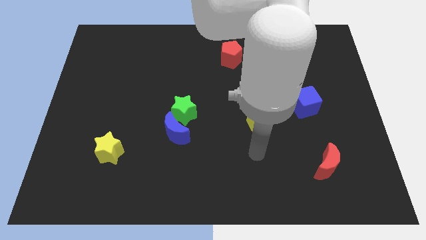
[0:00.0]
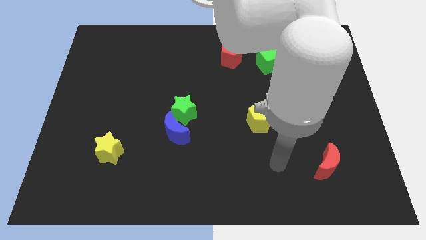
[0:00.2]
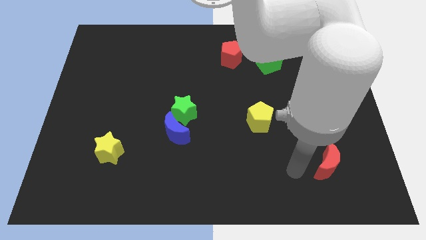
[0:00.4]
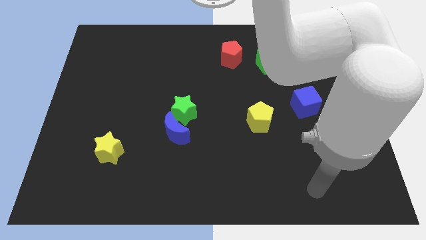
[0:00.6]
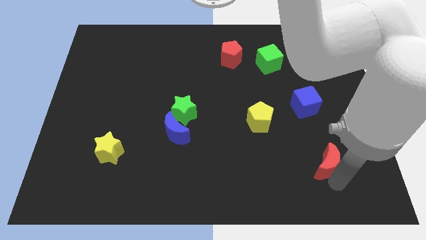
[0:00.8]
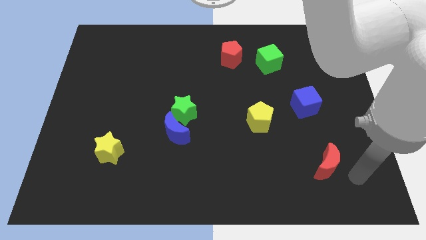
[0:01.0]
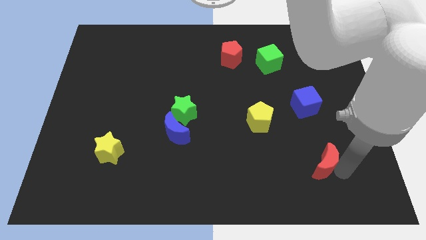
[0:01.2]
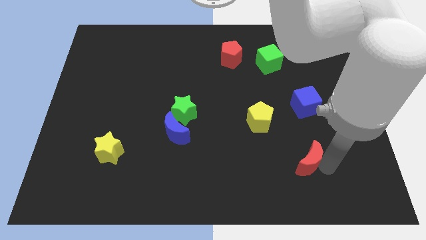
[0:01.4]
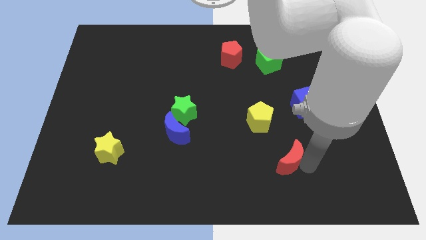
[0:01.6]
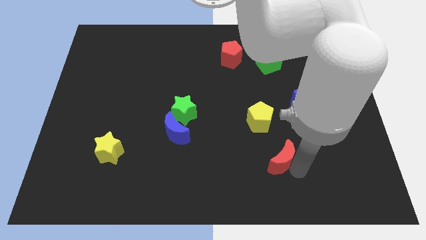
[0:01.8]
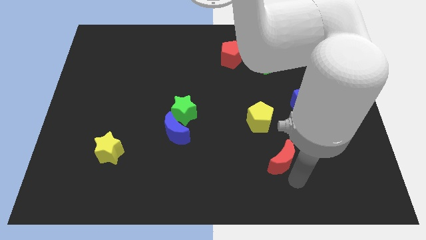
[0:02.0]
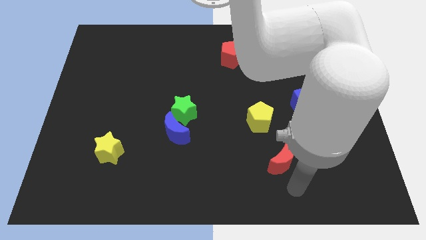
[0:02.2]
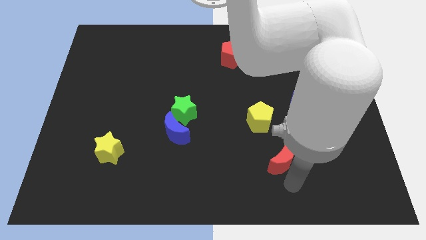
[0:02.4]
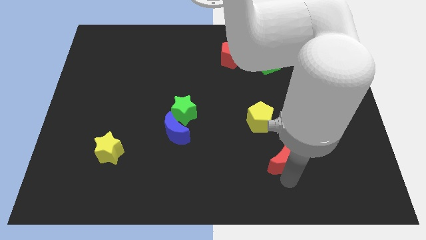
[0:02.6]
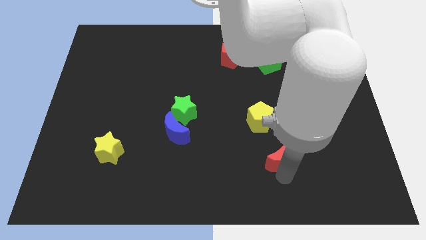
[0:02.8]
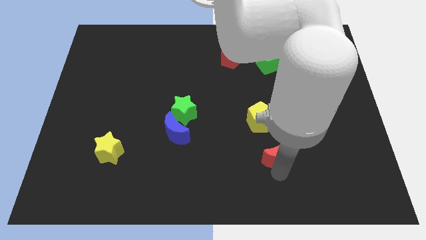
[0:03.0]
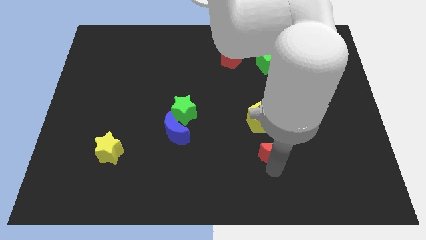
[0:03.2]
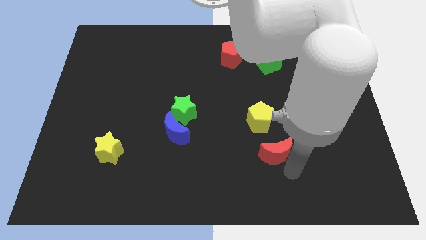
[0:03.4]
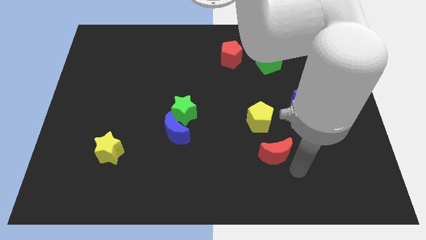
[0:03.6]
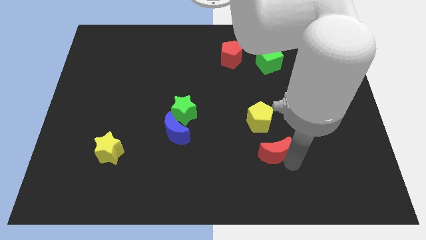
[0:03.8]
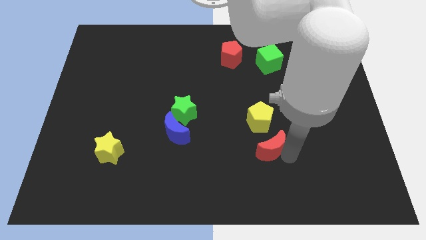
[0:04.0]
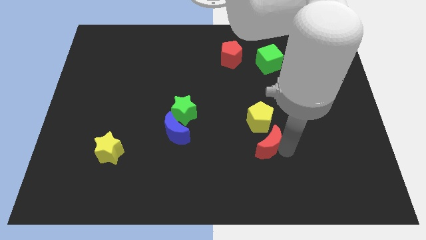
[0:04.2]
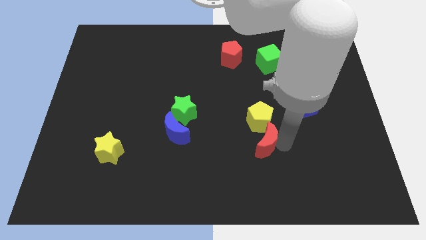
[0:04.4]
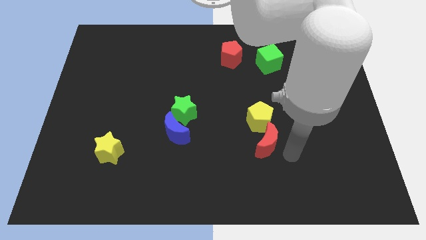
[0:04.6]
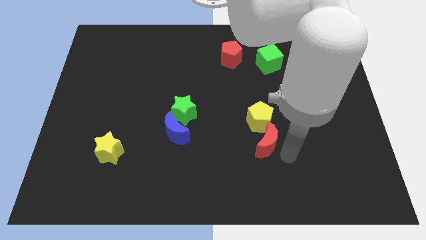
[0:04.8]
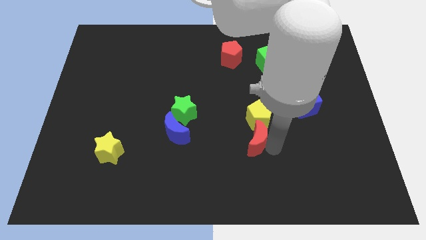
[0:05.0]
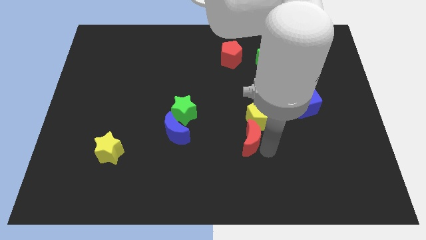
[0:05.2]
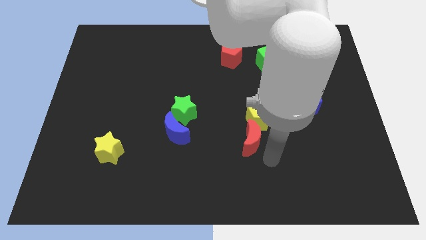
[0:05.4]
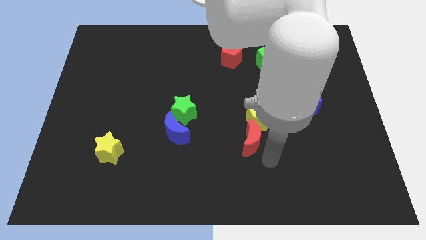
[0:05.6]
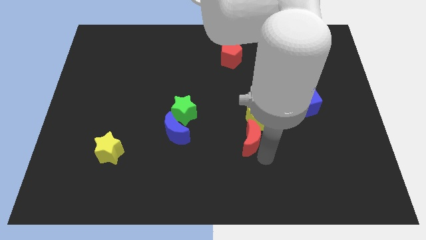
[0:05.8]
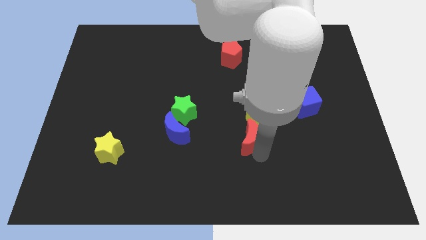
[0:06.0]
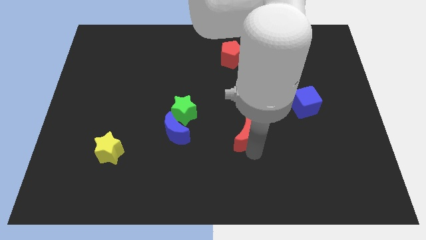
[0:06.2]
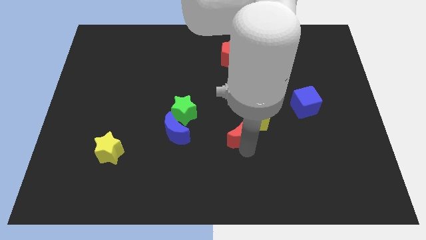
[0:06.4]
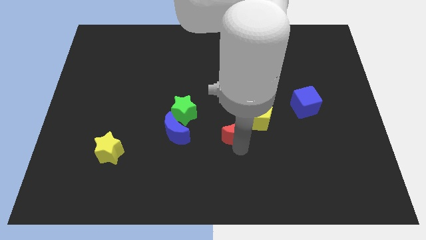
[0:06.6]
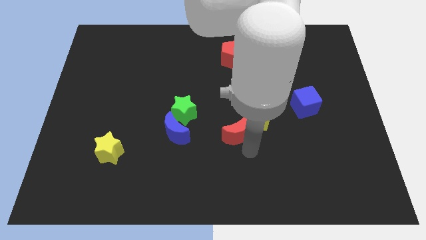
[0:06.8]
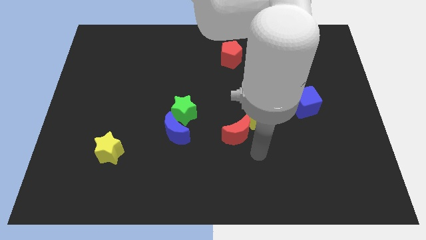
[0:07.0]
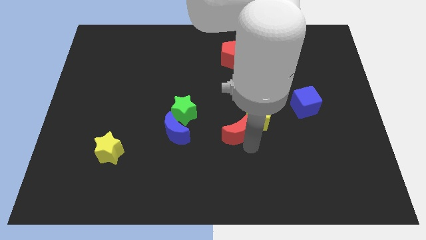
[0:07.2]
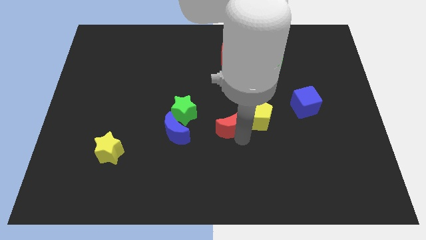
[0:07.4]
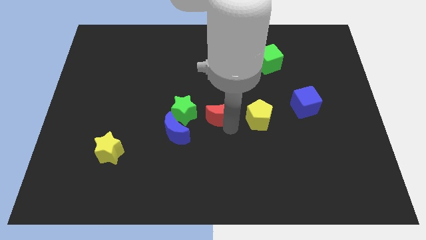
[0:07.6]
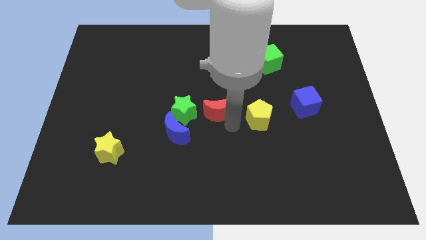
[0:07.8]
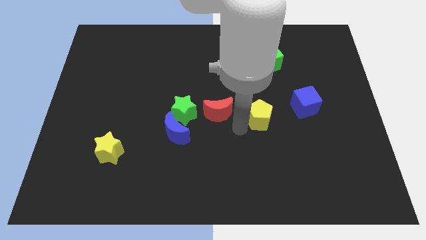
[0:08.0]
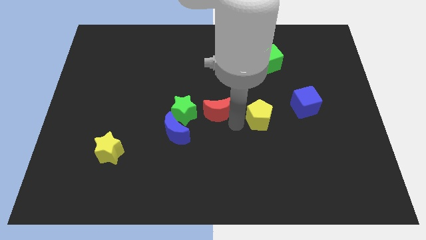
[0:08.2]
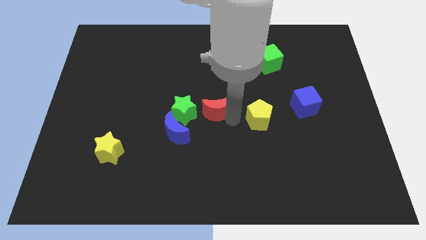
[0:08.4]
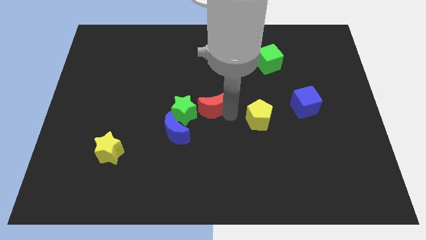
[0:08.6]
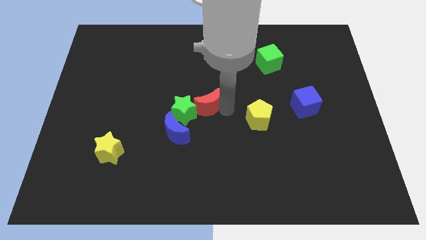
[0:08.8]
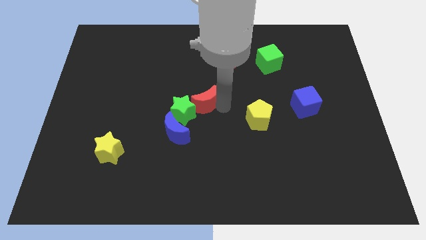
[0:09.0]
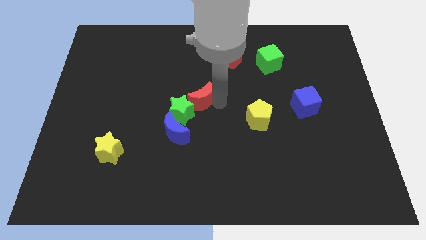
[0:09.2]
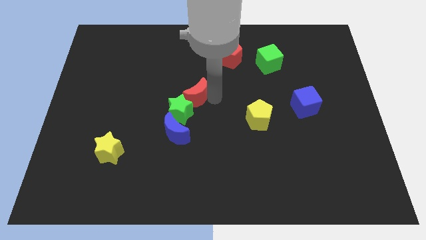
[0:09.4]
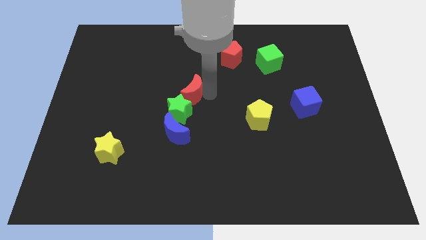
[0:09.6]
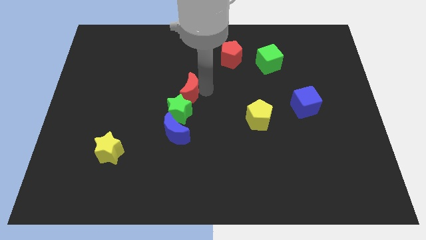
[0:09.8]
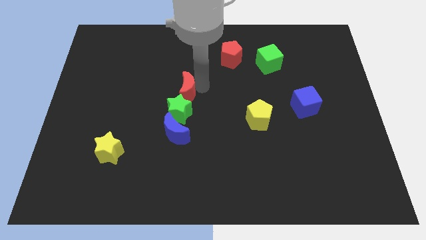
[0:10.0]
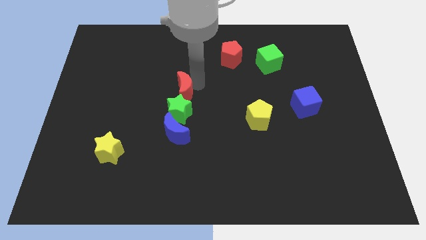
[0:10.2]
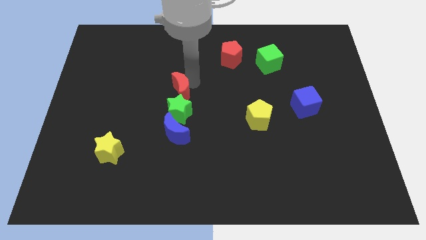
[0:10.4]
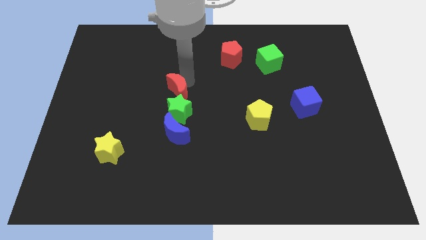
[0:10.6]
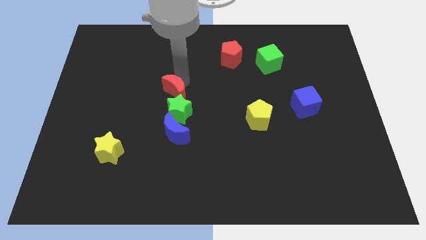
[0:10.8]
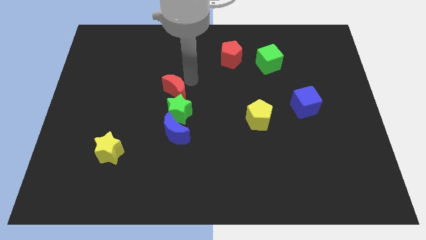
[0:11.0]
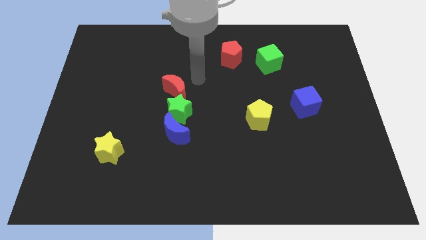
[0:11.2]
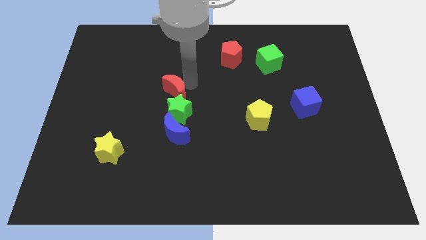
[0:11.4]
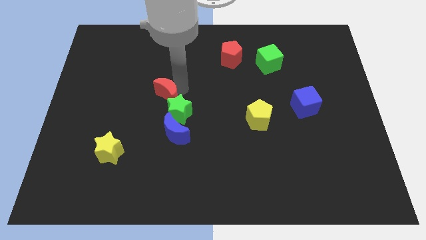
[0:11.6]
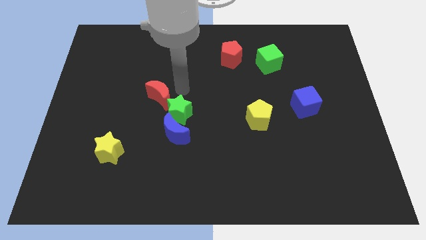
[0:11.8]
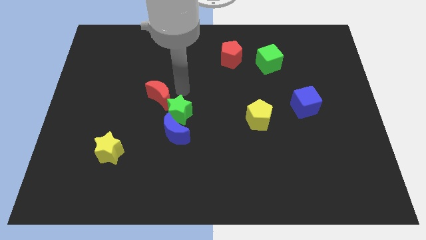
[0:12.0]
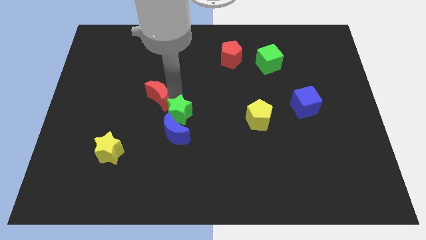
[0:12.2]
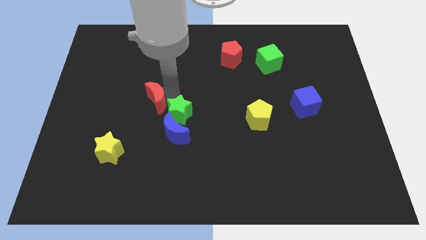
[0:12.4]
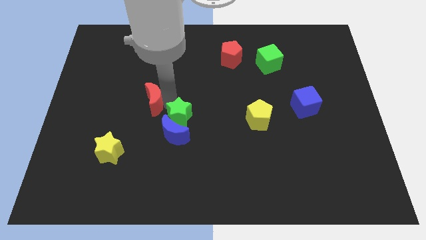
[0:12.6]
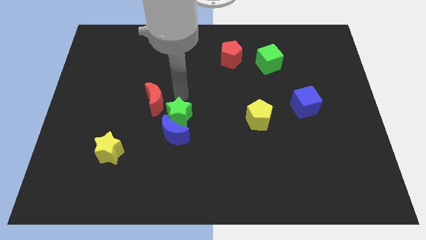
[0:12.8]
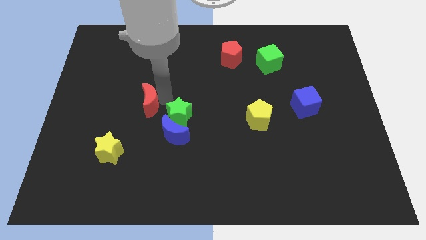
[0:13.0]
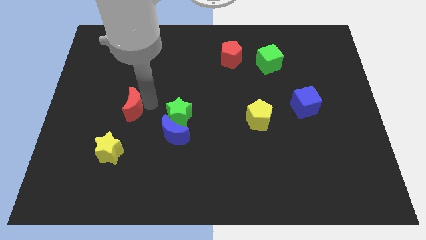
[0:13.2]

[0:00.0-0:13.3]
move the red moon above the yellow star

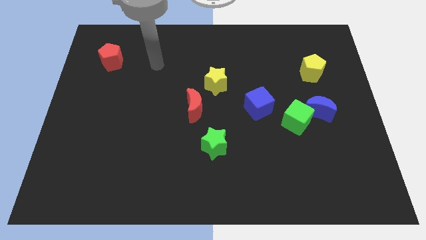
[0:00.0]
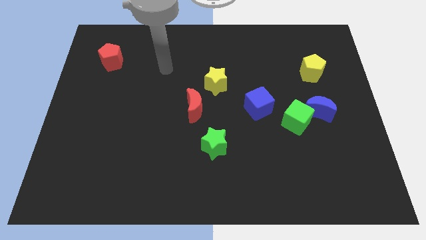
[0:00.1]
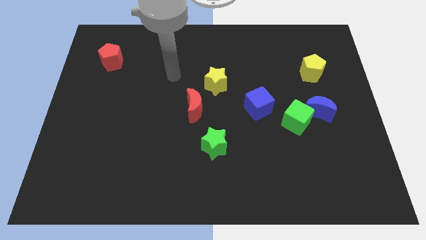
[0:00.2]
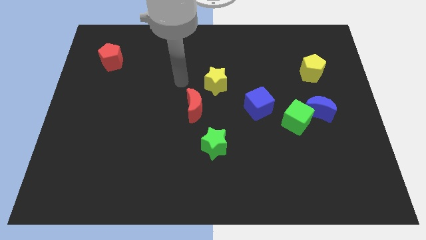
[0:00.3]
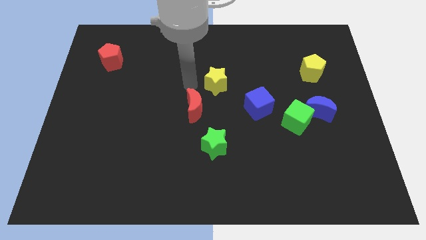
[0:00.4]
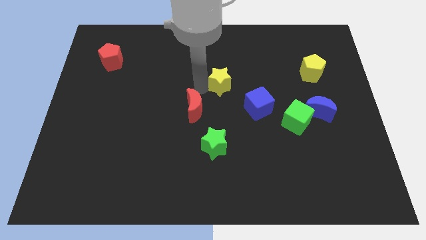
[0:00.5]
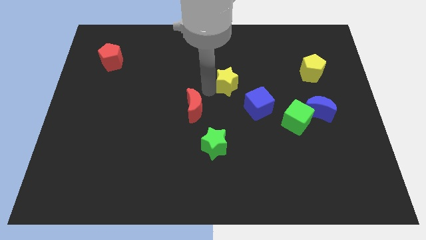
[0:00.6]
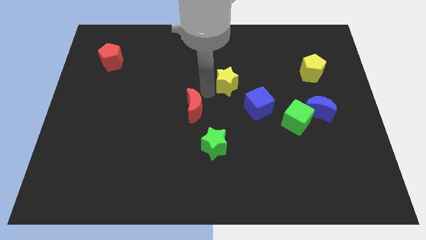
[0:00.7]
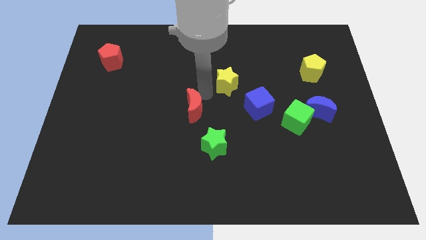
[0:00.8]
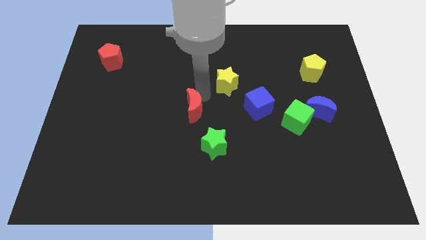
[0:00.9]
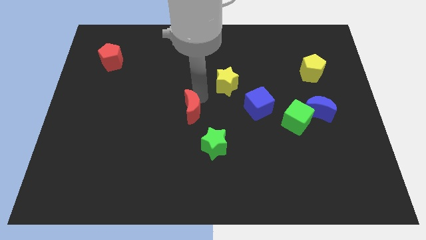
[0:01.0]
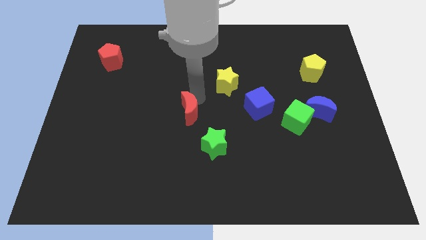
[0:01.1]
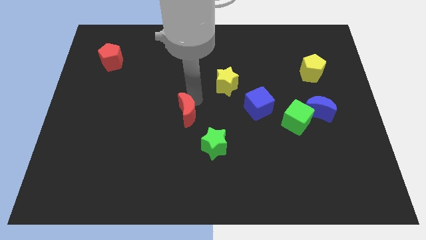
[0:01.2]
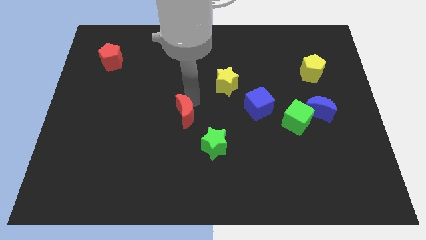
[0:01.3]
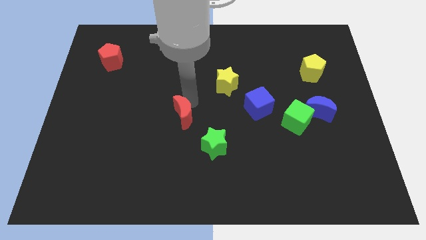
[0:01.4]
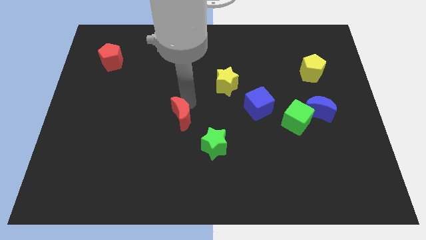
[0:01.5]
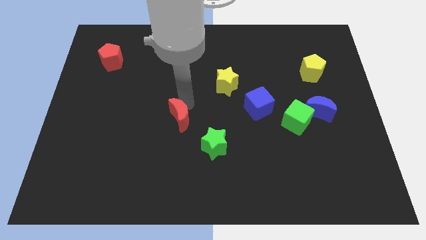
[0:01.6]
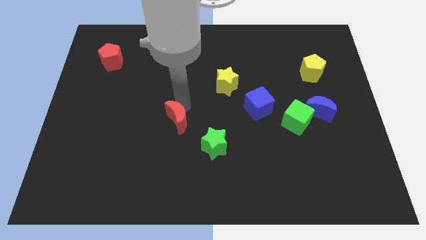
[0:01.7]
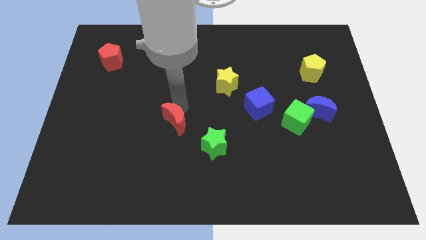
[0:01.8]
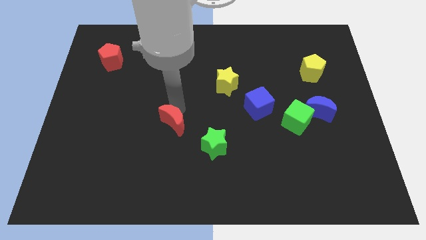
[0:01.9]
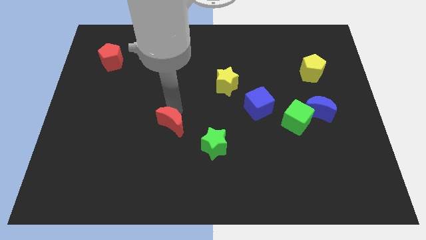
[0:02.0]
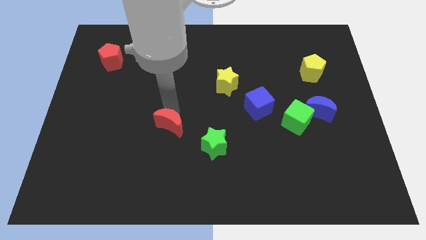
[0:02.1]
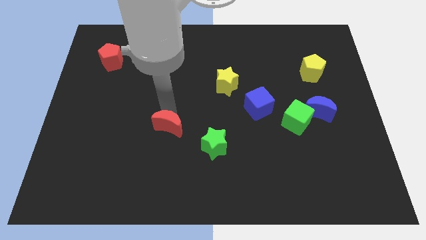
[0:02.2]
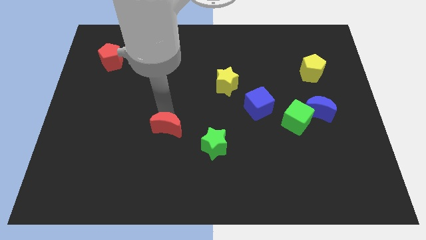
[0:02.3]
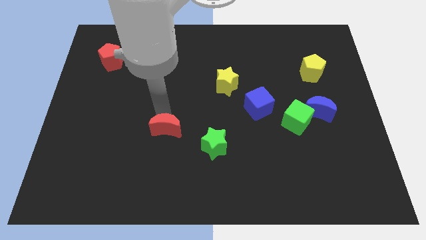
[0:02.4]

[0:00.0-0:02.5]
slide the red moon just left of the green star
